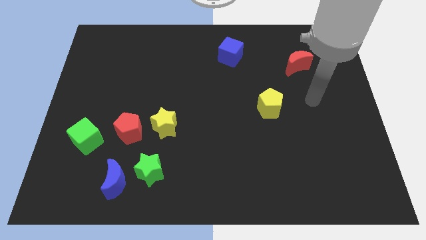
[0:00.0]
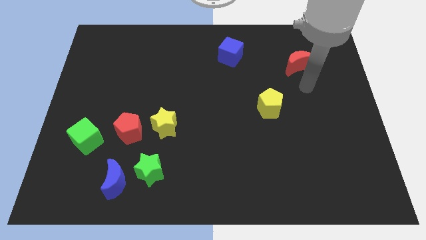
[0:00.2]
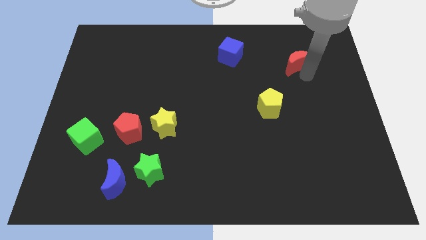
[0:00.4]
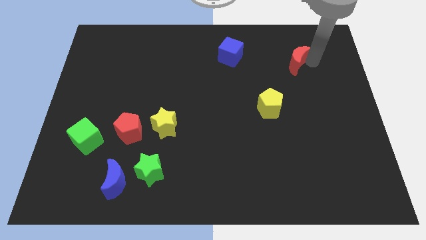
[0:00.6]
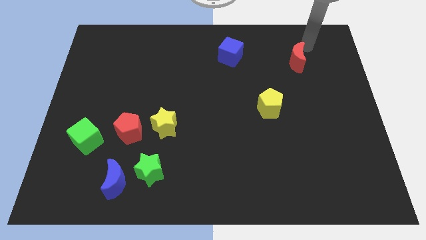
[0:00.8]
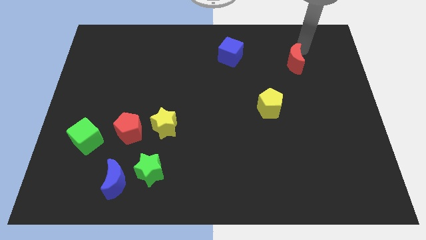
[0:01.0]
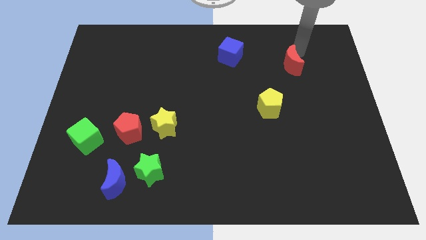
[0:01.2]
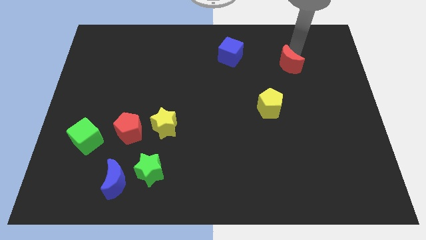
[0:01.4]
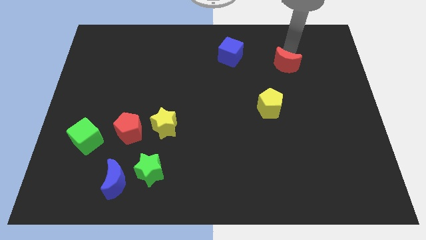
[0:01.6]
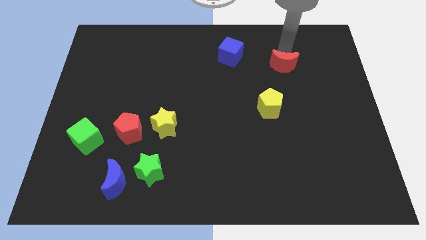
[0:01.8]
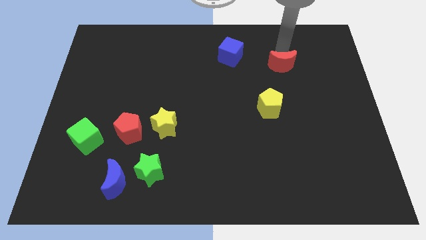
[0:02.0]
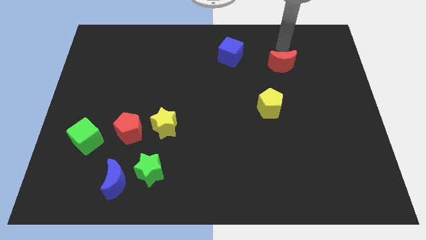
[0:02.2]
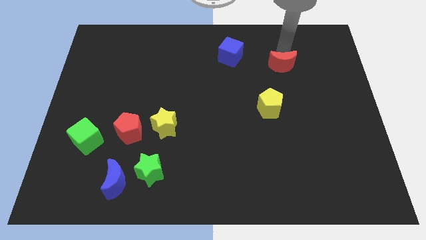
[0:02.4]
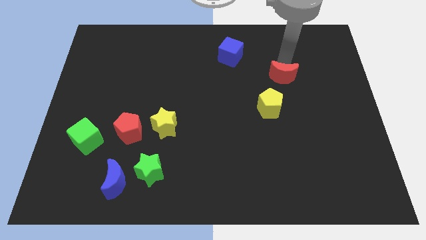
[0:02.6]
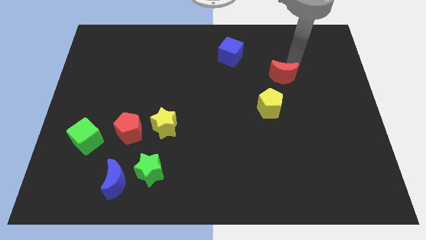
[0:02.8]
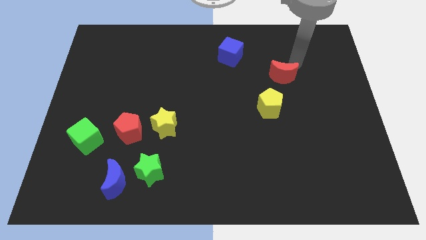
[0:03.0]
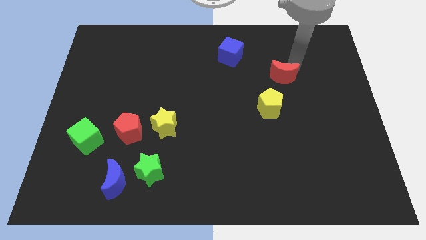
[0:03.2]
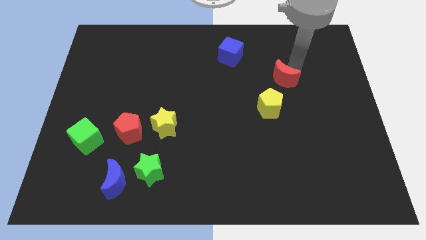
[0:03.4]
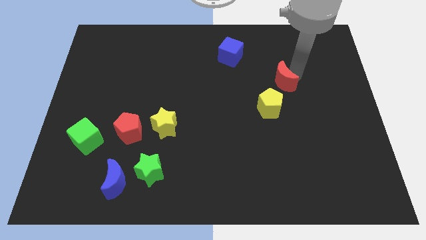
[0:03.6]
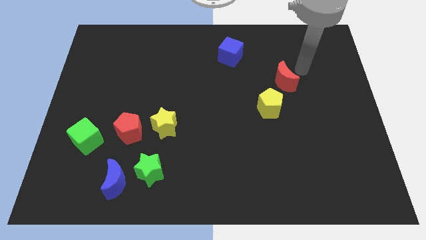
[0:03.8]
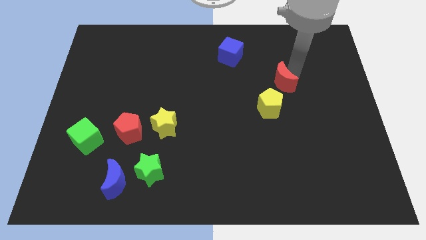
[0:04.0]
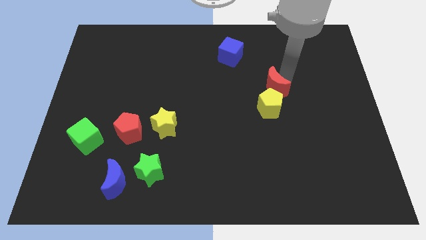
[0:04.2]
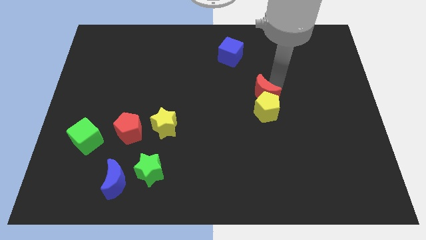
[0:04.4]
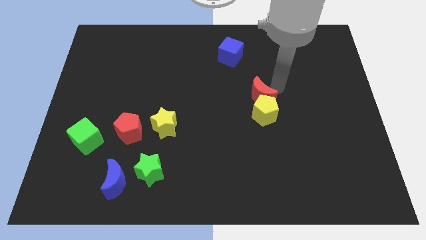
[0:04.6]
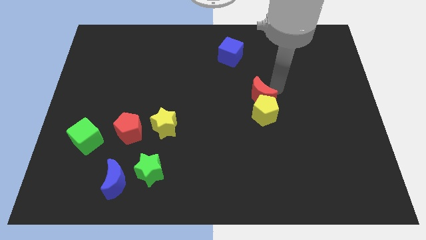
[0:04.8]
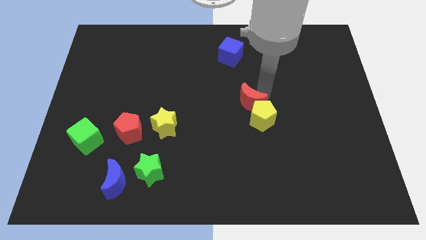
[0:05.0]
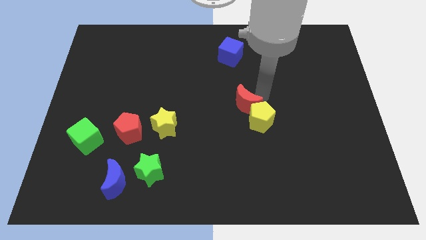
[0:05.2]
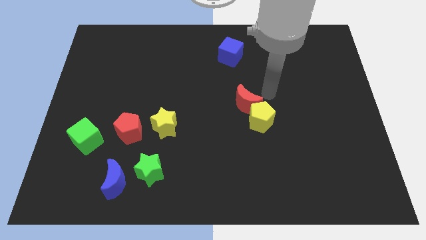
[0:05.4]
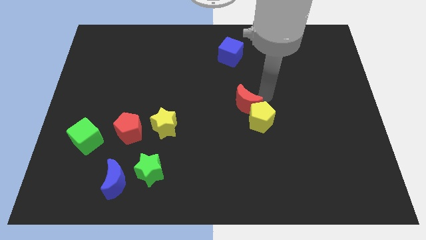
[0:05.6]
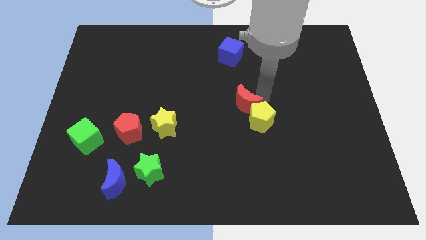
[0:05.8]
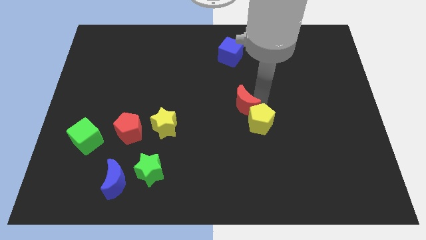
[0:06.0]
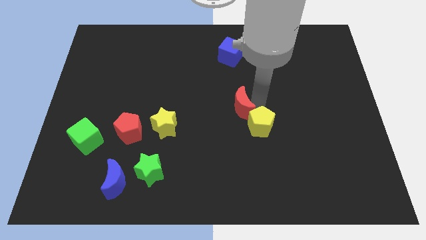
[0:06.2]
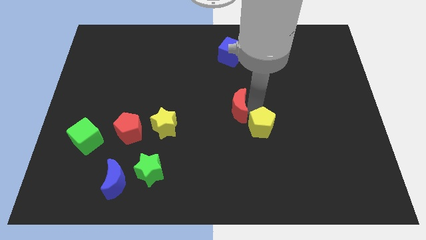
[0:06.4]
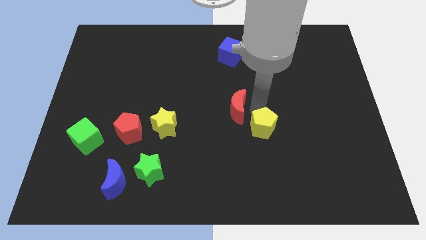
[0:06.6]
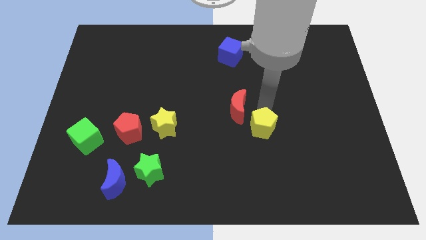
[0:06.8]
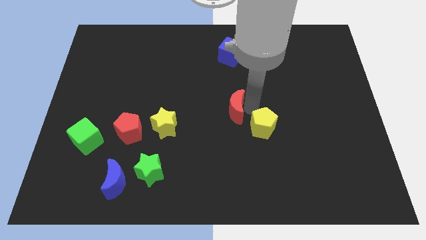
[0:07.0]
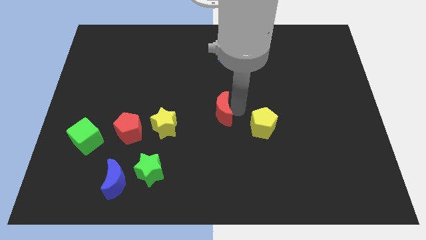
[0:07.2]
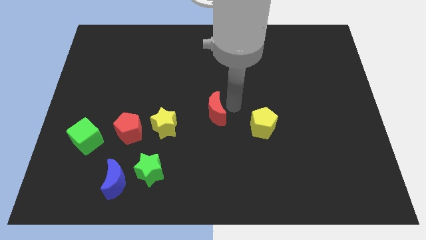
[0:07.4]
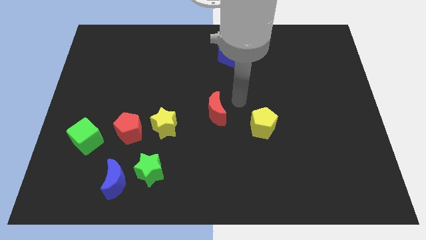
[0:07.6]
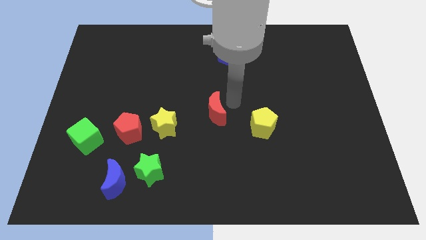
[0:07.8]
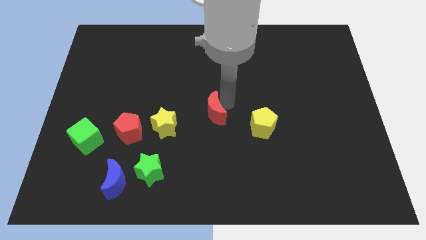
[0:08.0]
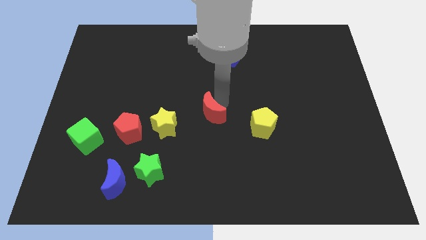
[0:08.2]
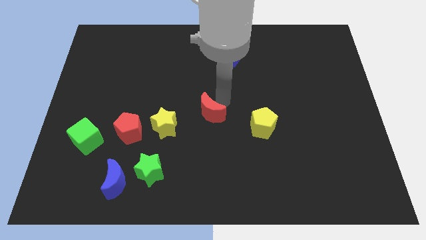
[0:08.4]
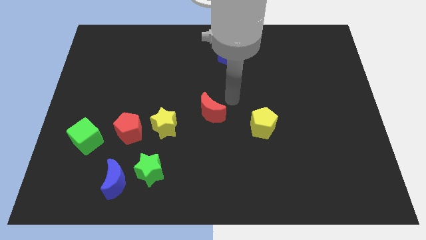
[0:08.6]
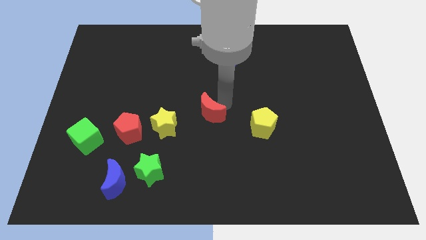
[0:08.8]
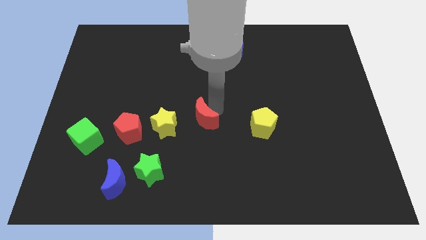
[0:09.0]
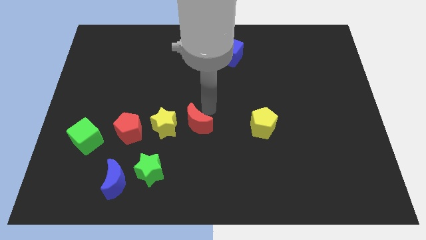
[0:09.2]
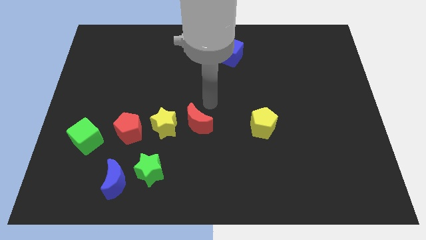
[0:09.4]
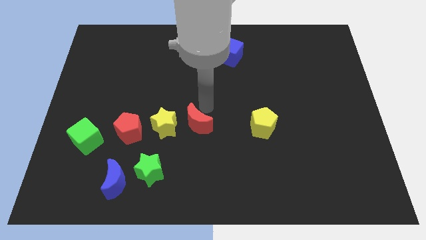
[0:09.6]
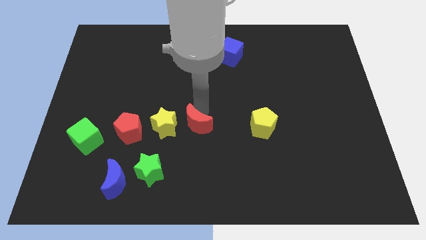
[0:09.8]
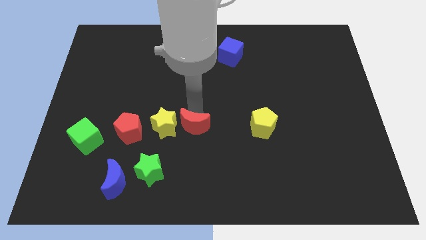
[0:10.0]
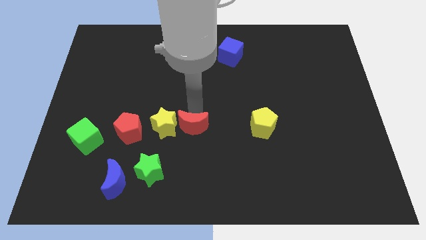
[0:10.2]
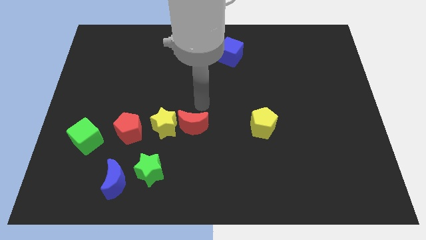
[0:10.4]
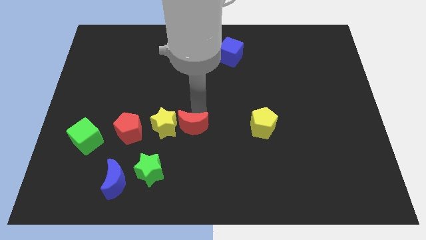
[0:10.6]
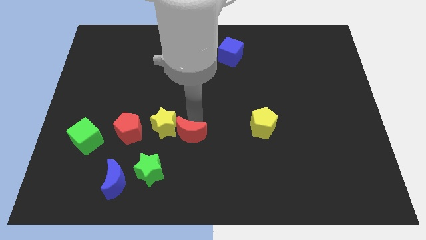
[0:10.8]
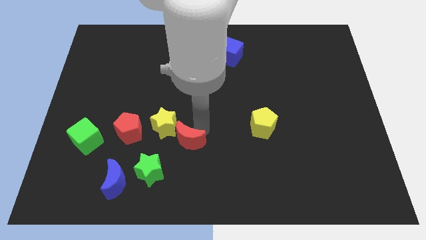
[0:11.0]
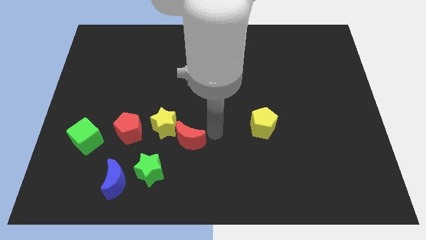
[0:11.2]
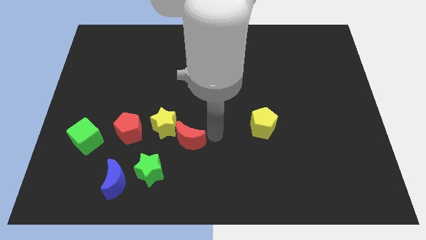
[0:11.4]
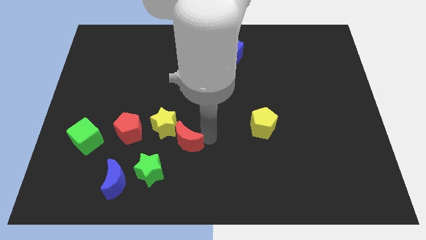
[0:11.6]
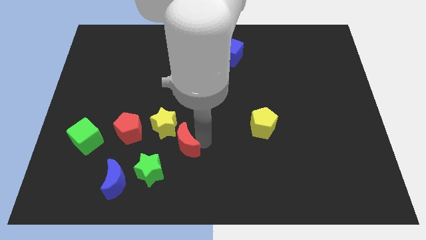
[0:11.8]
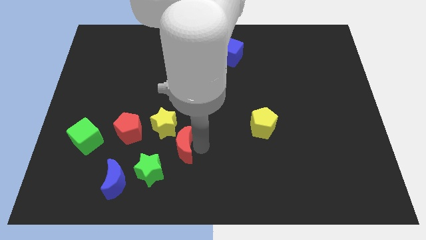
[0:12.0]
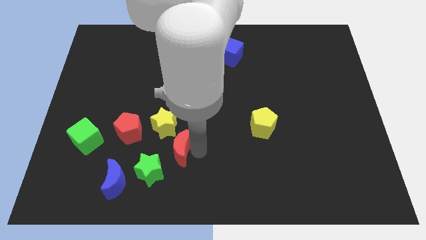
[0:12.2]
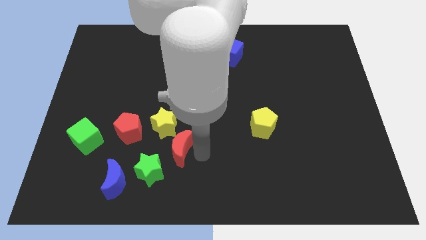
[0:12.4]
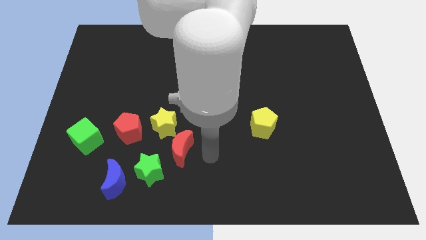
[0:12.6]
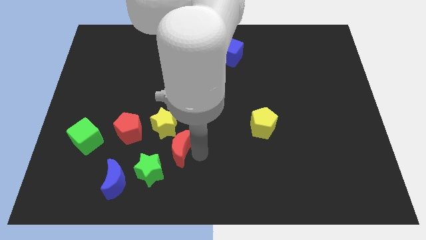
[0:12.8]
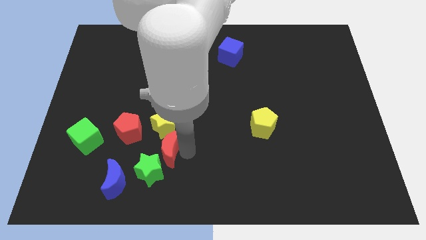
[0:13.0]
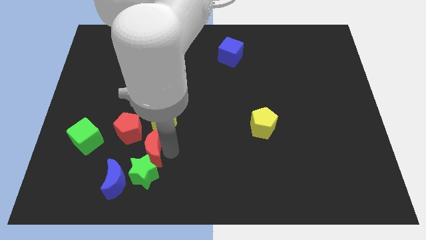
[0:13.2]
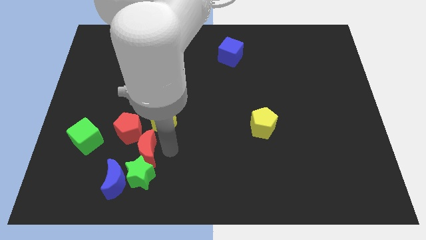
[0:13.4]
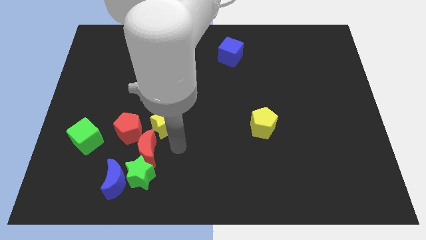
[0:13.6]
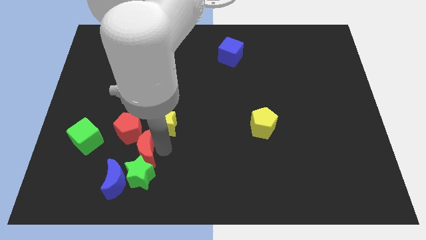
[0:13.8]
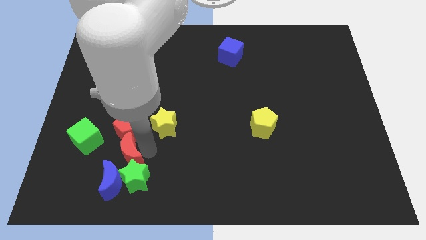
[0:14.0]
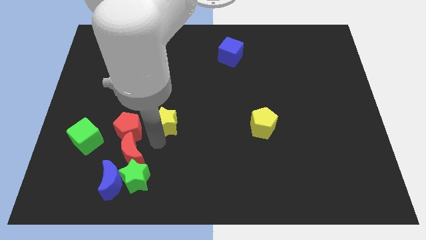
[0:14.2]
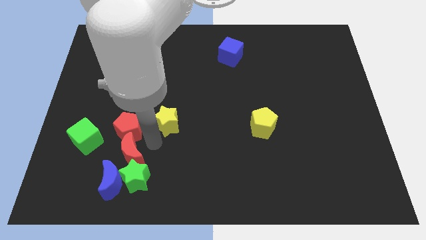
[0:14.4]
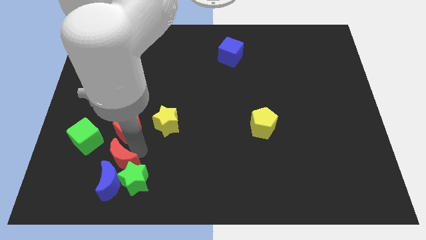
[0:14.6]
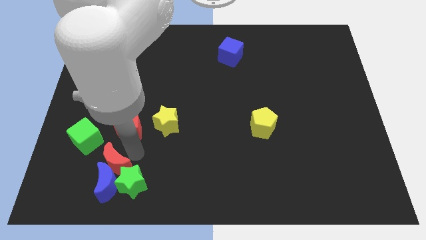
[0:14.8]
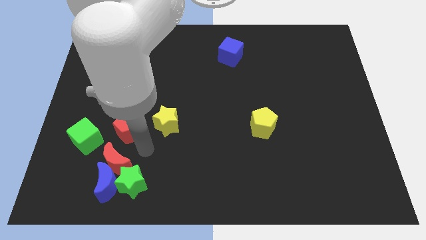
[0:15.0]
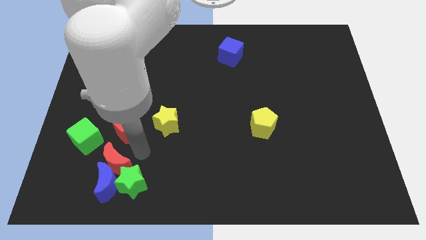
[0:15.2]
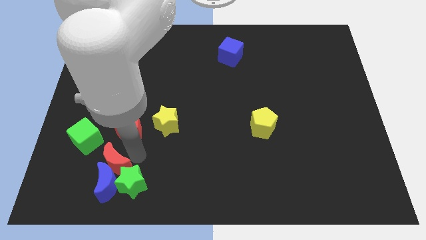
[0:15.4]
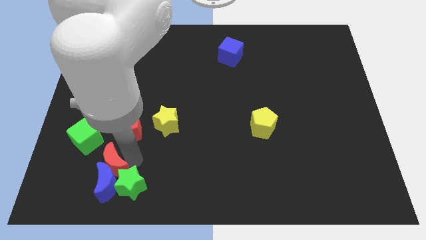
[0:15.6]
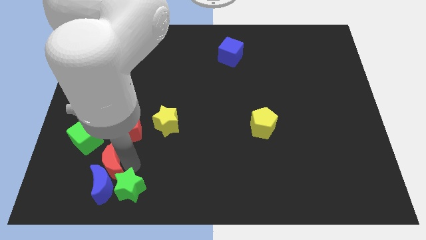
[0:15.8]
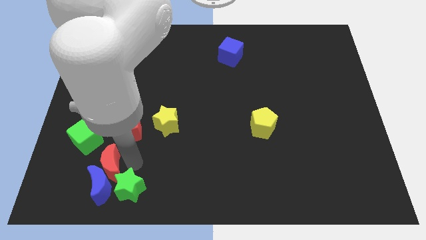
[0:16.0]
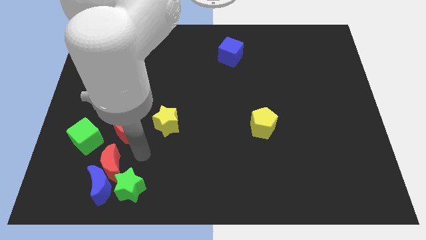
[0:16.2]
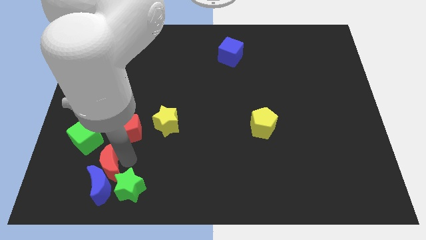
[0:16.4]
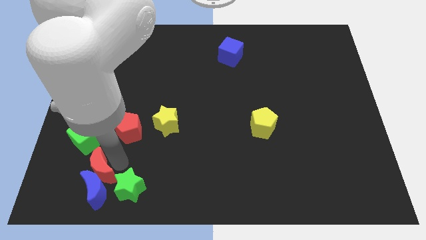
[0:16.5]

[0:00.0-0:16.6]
put the red moon to the bottom side of the green cube
